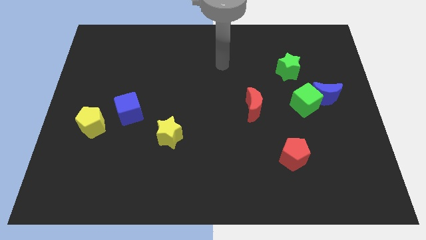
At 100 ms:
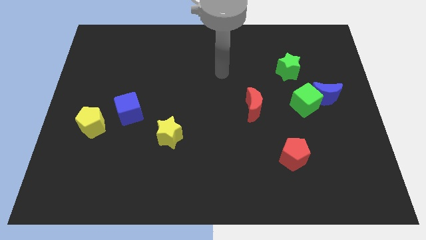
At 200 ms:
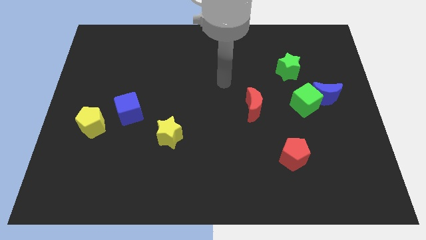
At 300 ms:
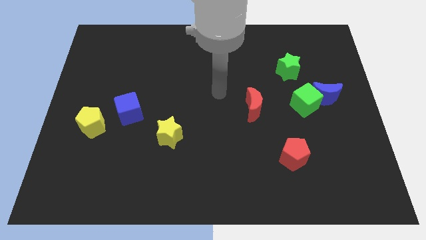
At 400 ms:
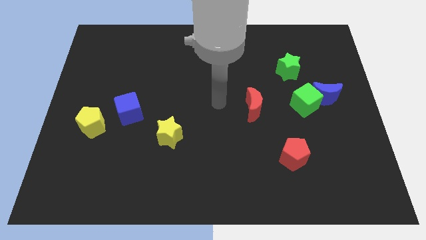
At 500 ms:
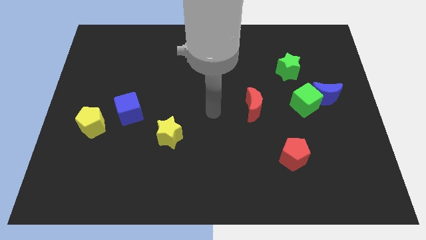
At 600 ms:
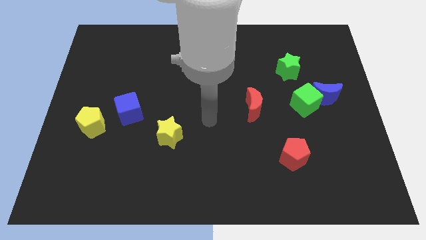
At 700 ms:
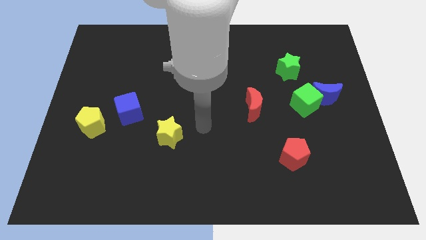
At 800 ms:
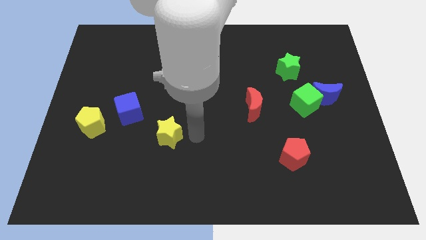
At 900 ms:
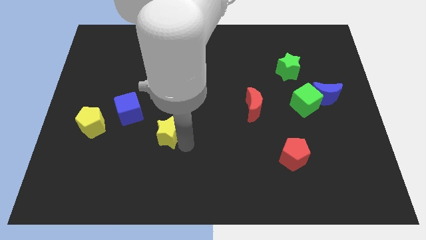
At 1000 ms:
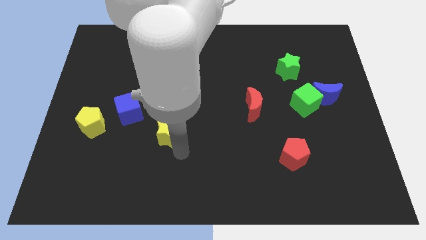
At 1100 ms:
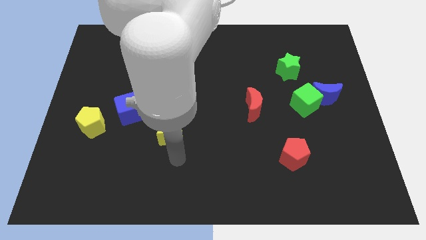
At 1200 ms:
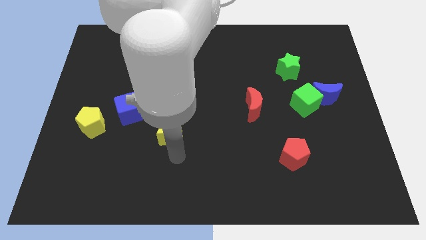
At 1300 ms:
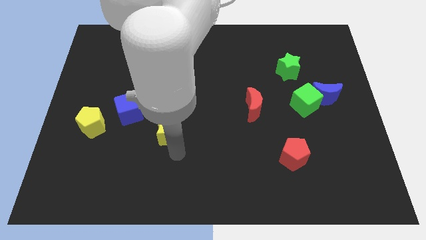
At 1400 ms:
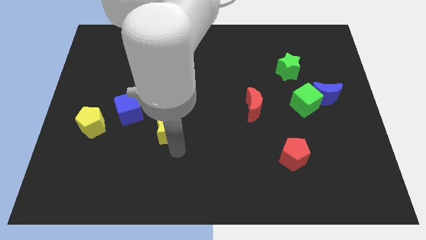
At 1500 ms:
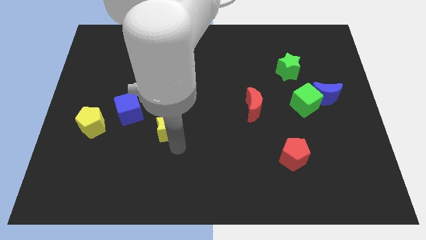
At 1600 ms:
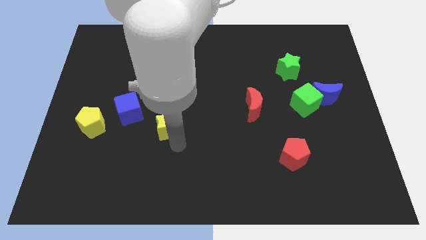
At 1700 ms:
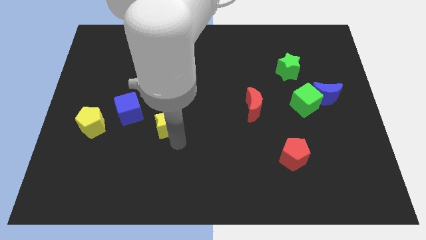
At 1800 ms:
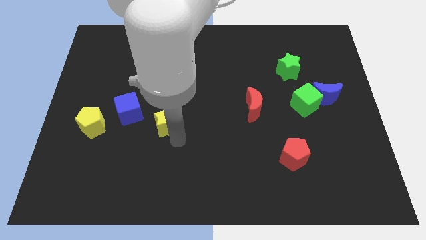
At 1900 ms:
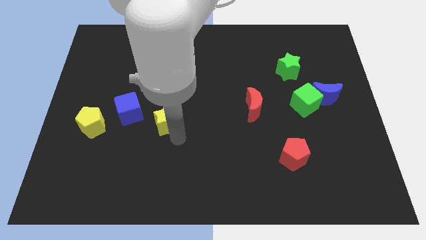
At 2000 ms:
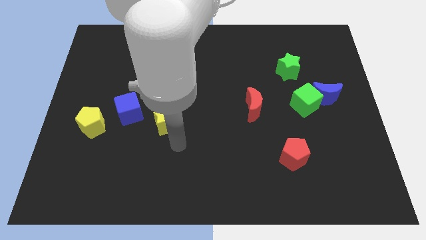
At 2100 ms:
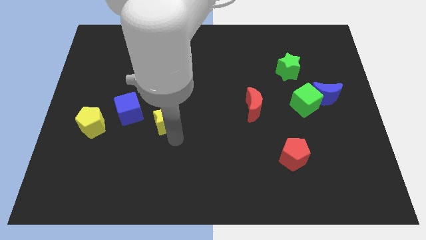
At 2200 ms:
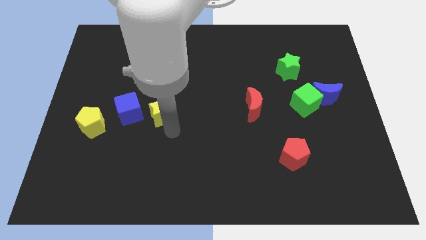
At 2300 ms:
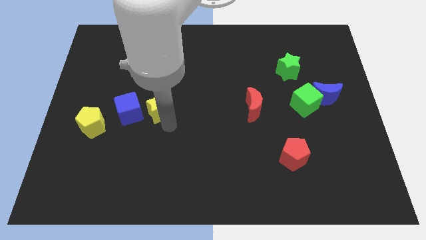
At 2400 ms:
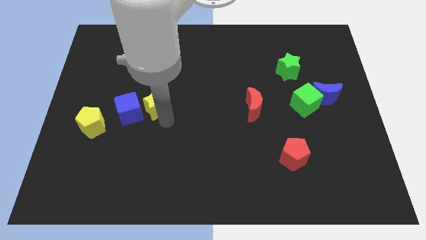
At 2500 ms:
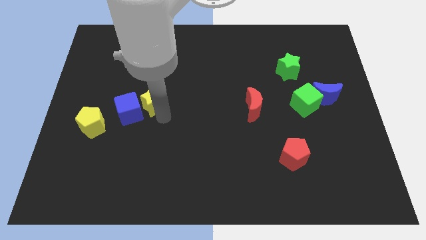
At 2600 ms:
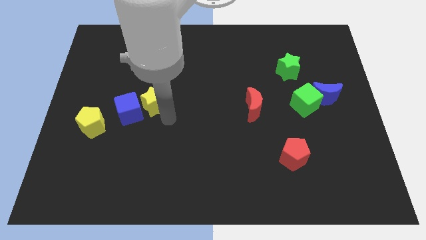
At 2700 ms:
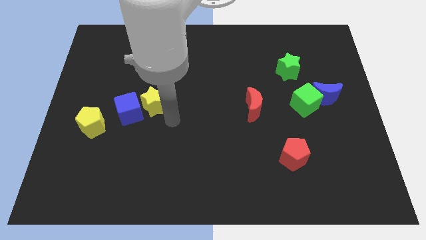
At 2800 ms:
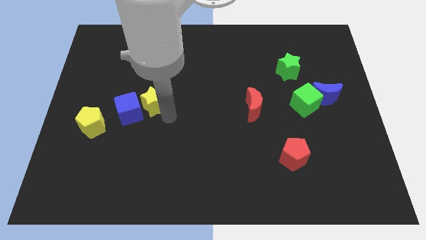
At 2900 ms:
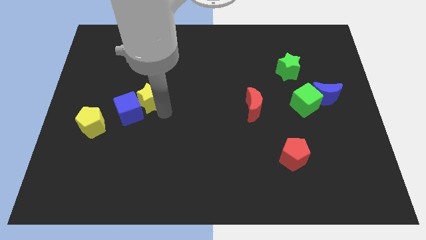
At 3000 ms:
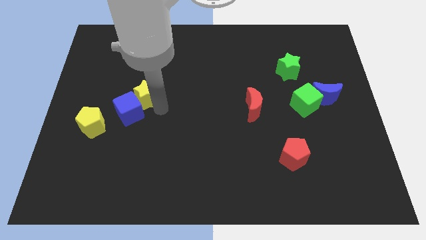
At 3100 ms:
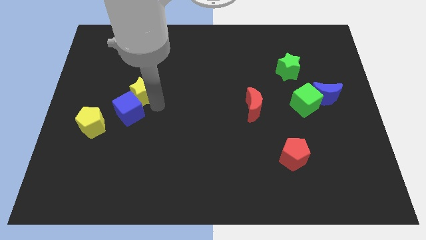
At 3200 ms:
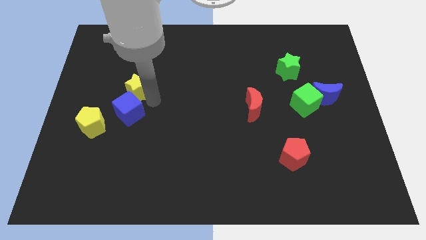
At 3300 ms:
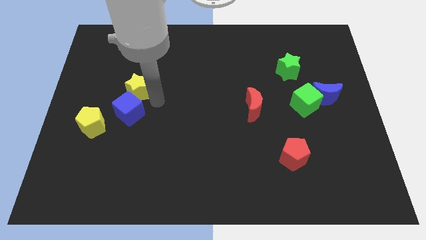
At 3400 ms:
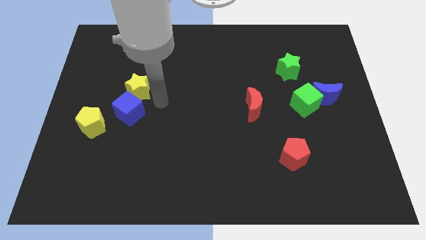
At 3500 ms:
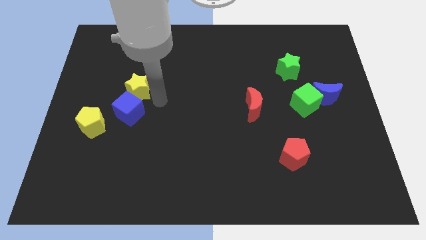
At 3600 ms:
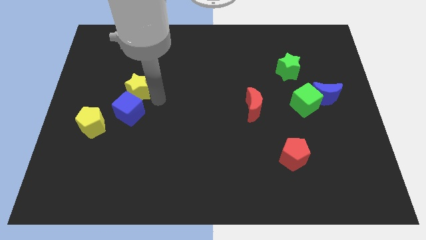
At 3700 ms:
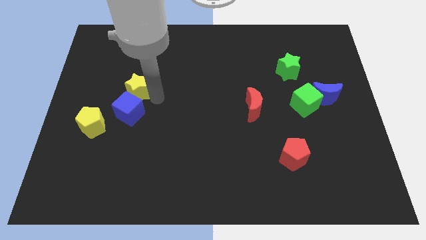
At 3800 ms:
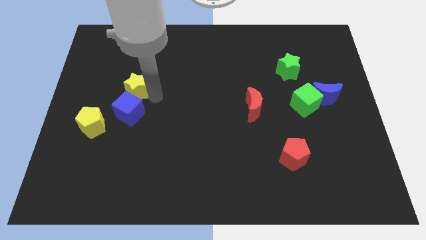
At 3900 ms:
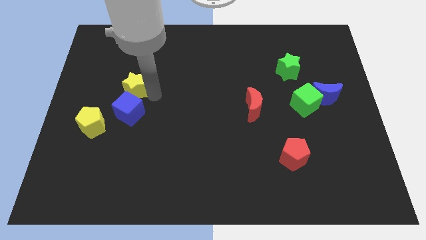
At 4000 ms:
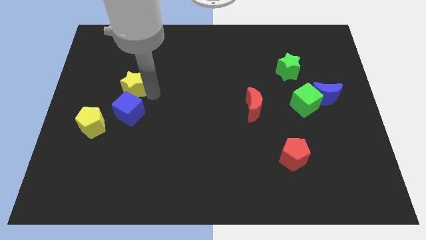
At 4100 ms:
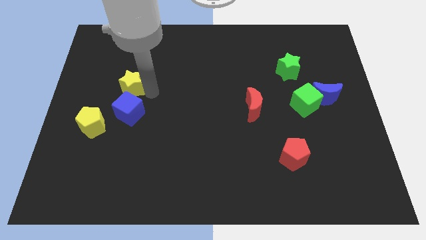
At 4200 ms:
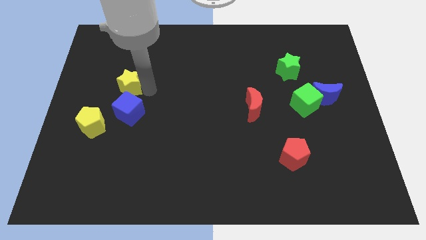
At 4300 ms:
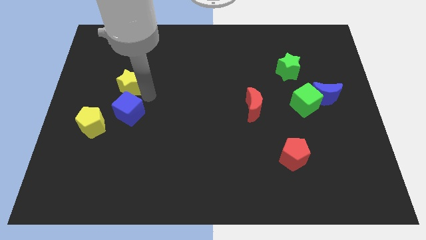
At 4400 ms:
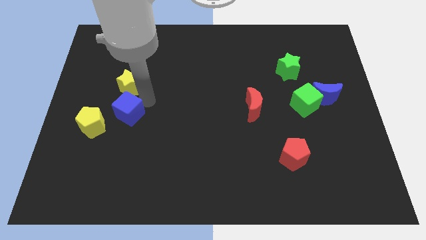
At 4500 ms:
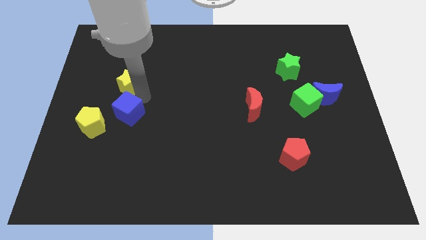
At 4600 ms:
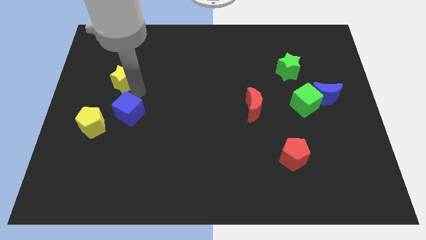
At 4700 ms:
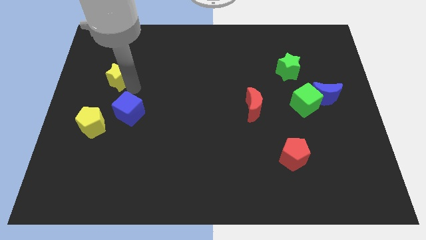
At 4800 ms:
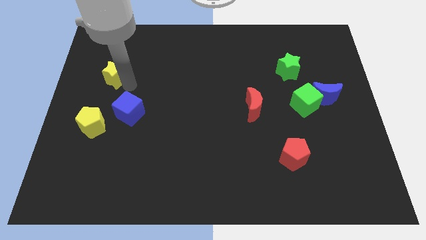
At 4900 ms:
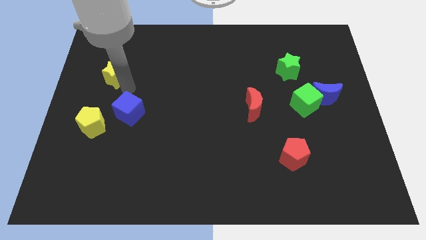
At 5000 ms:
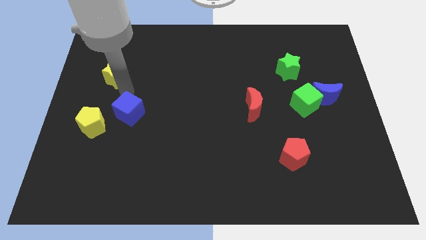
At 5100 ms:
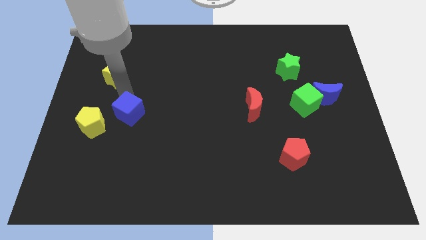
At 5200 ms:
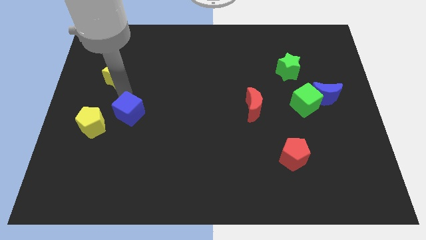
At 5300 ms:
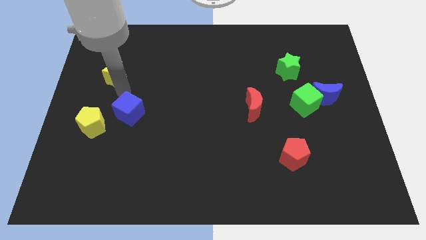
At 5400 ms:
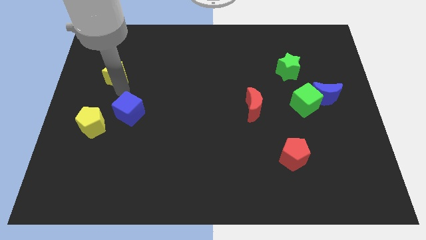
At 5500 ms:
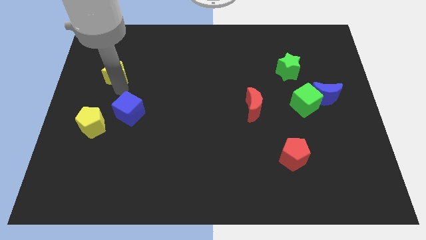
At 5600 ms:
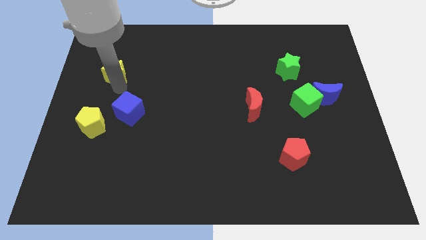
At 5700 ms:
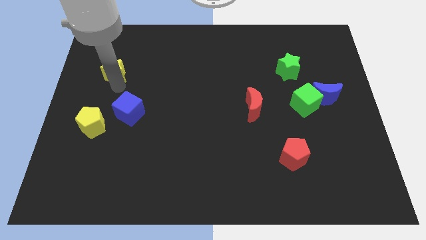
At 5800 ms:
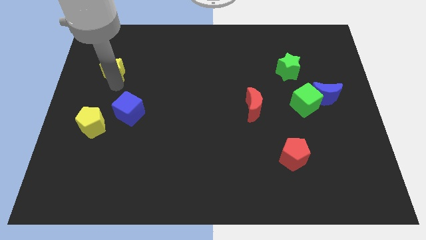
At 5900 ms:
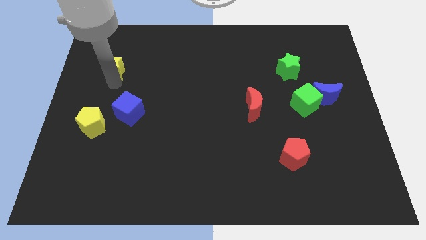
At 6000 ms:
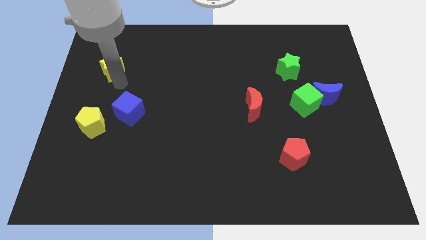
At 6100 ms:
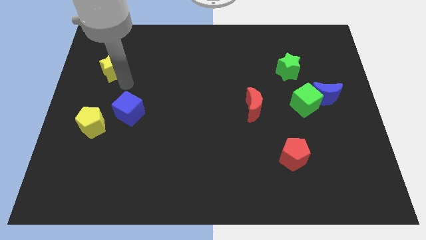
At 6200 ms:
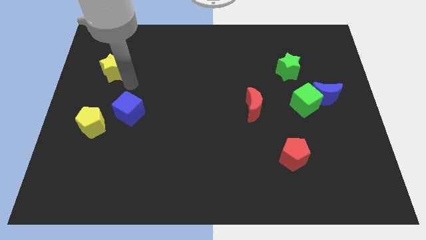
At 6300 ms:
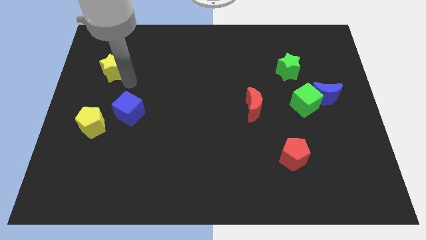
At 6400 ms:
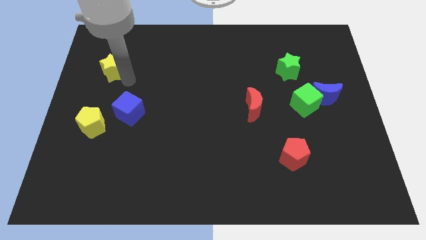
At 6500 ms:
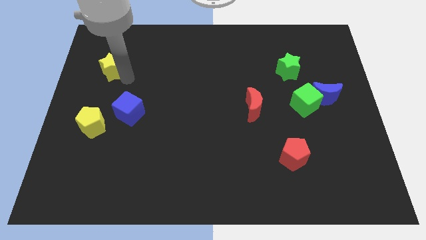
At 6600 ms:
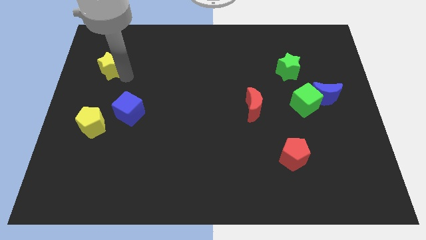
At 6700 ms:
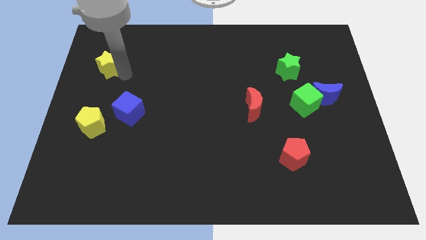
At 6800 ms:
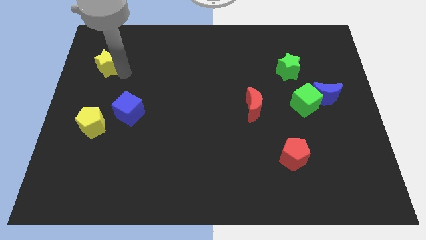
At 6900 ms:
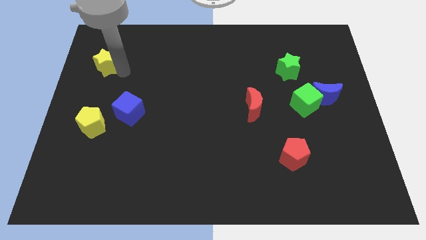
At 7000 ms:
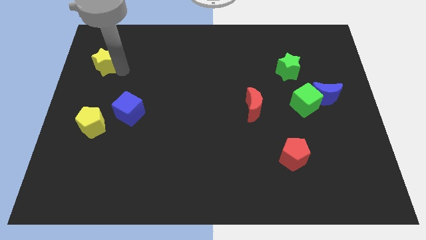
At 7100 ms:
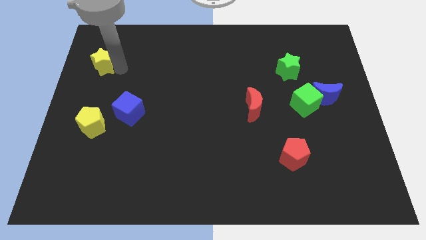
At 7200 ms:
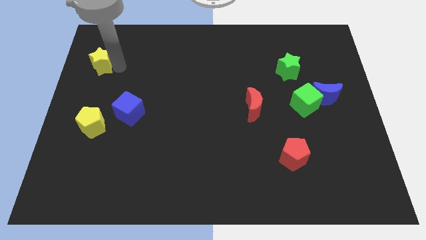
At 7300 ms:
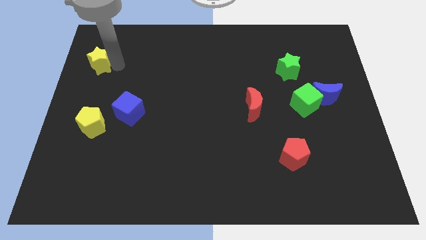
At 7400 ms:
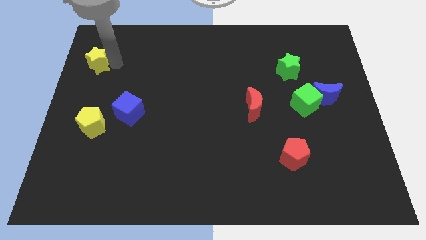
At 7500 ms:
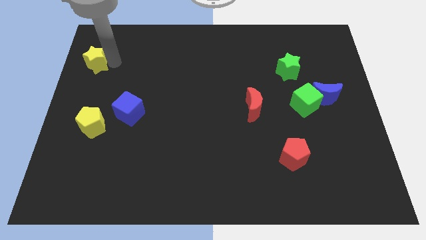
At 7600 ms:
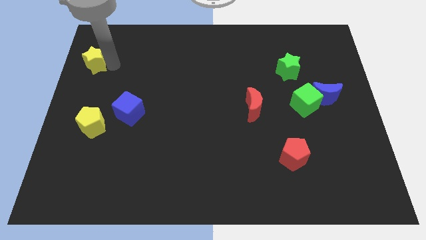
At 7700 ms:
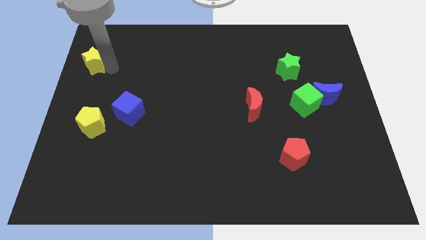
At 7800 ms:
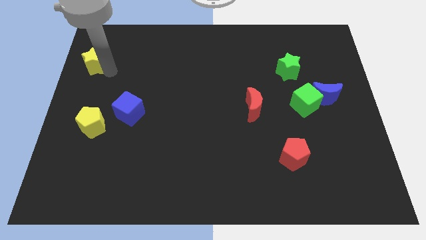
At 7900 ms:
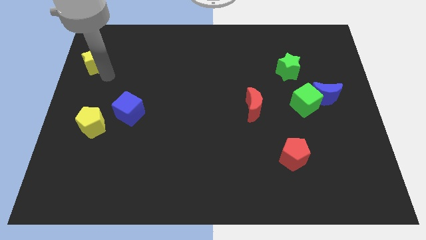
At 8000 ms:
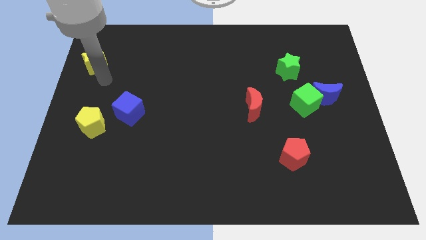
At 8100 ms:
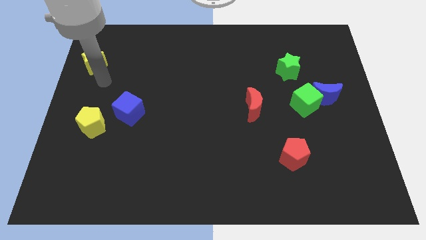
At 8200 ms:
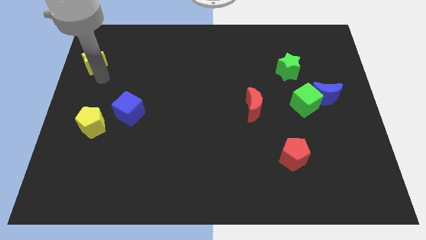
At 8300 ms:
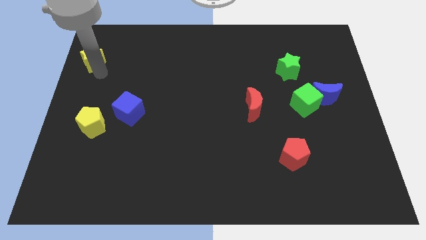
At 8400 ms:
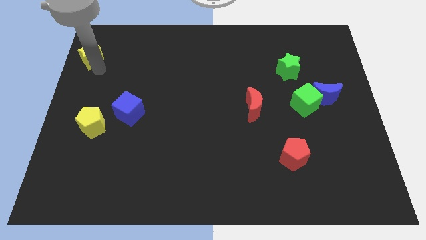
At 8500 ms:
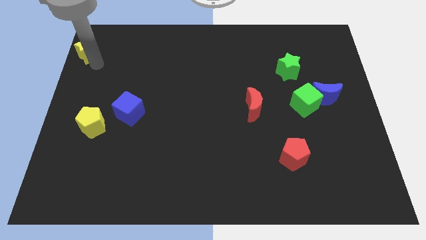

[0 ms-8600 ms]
move the yellow star to the upper left corner
